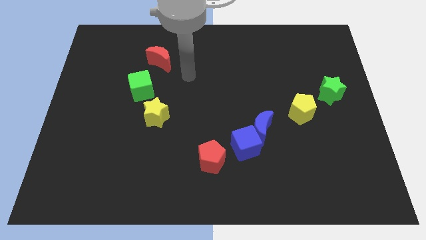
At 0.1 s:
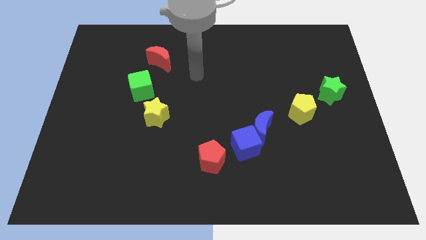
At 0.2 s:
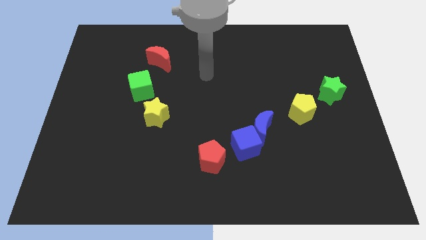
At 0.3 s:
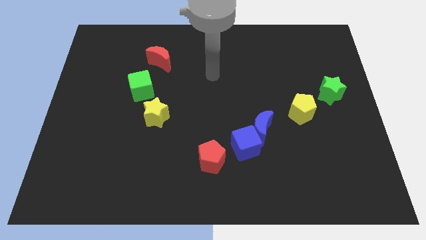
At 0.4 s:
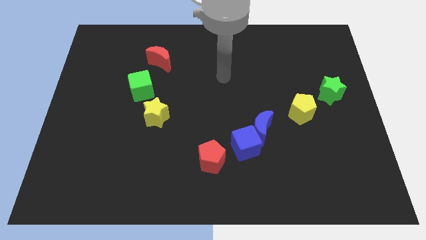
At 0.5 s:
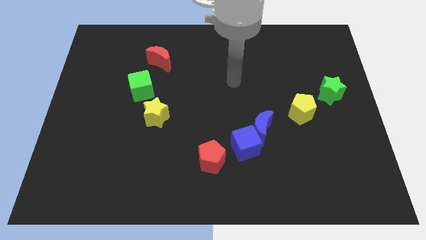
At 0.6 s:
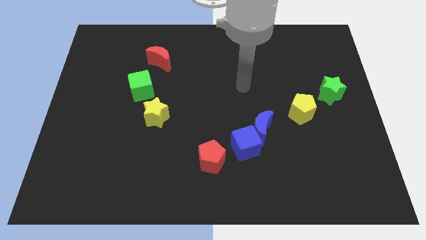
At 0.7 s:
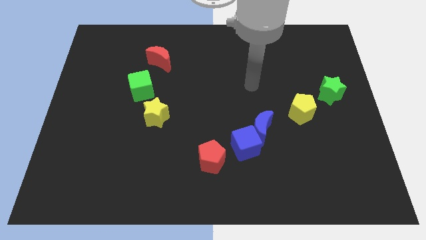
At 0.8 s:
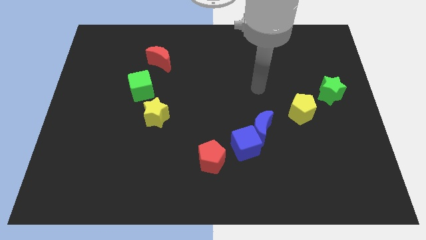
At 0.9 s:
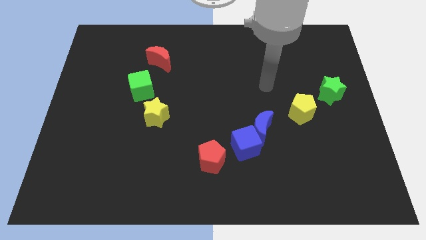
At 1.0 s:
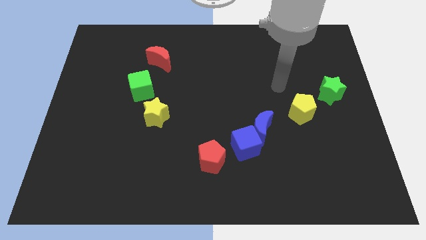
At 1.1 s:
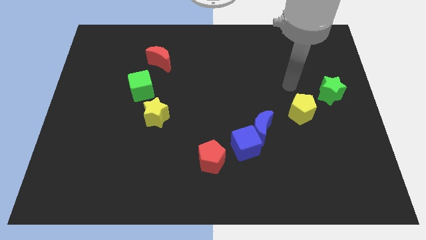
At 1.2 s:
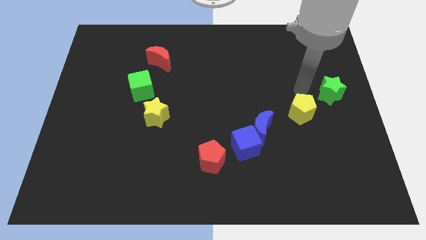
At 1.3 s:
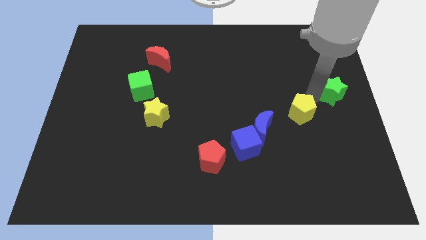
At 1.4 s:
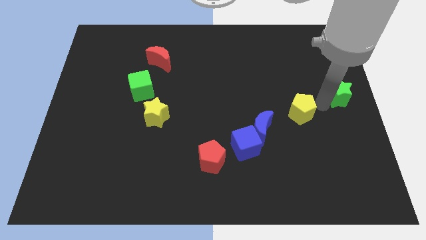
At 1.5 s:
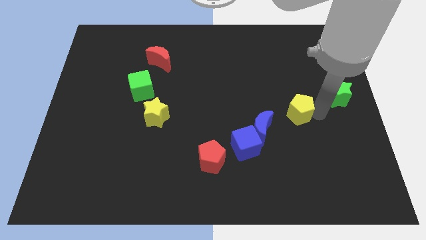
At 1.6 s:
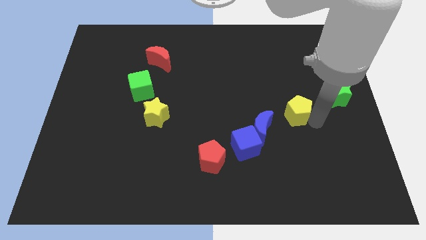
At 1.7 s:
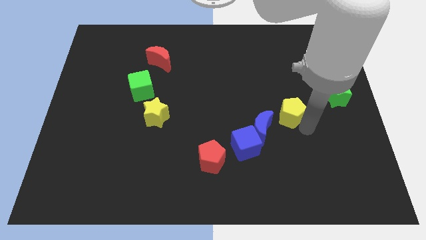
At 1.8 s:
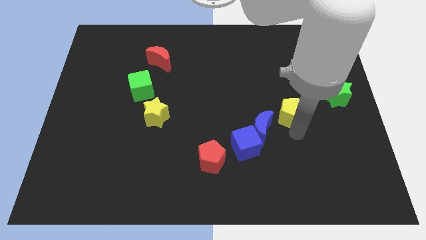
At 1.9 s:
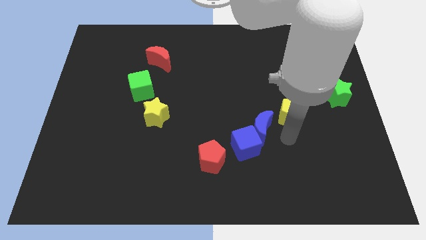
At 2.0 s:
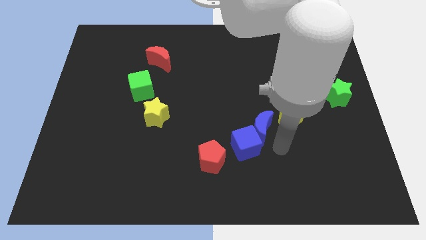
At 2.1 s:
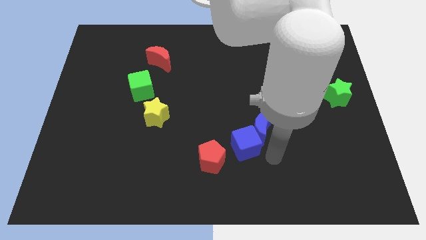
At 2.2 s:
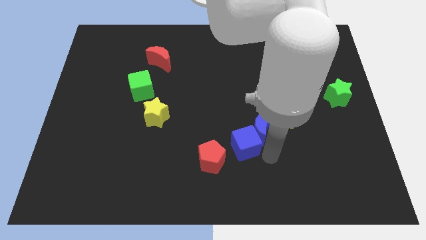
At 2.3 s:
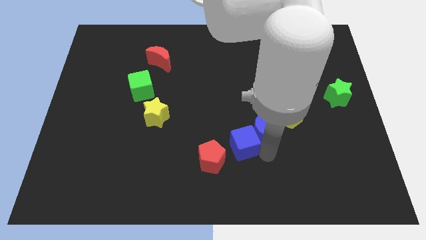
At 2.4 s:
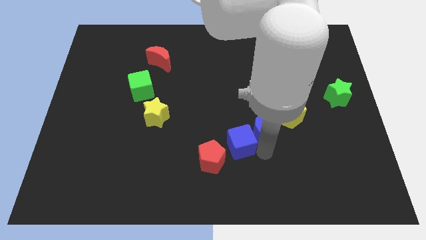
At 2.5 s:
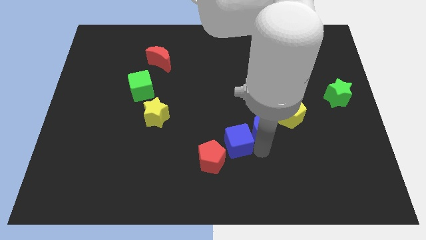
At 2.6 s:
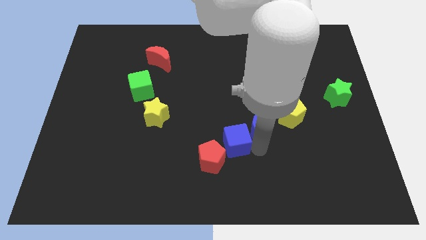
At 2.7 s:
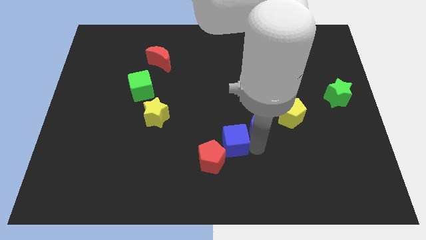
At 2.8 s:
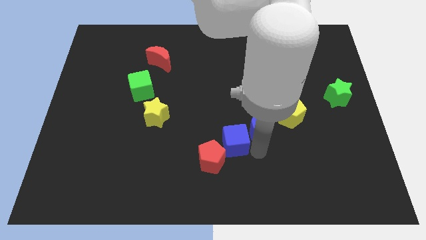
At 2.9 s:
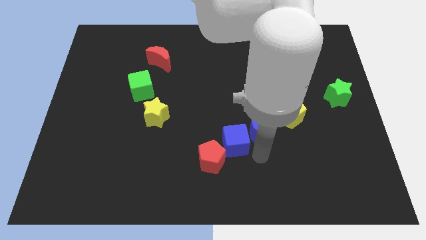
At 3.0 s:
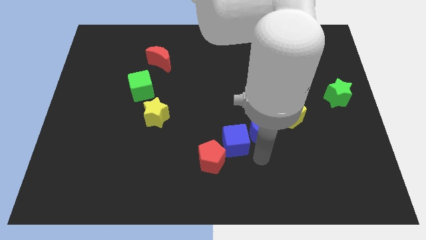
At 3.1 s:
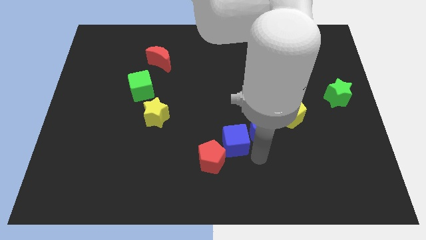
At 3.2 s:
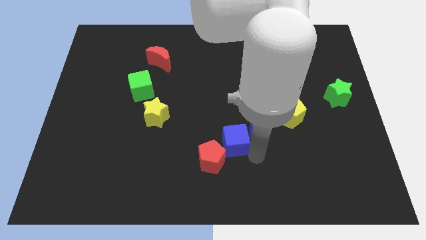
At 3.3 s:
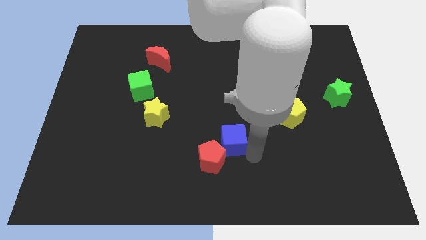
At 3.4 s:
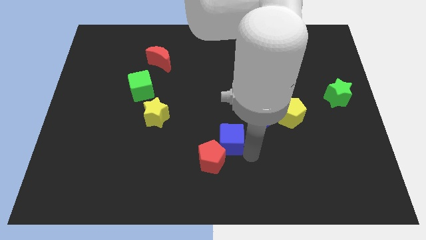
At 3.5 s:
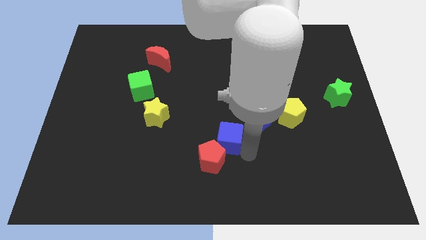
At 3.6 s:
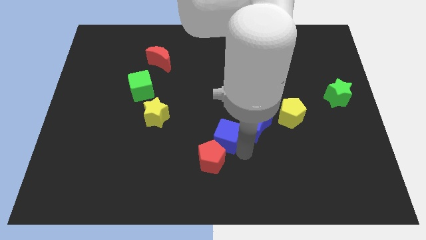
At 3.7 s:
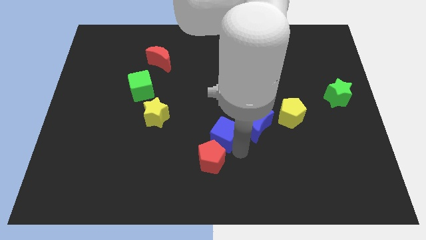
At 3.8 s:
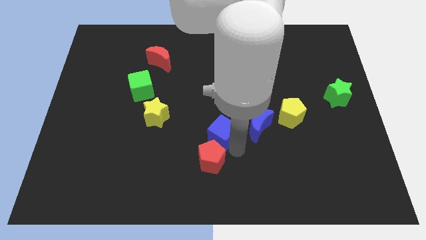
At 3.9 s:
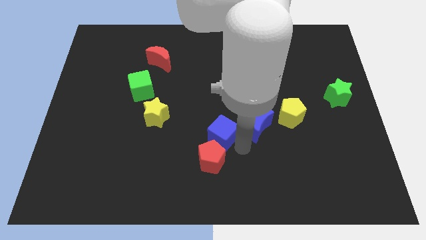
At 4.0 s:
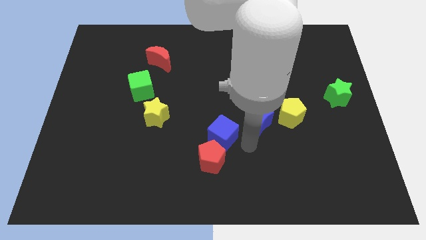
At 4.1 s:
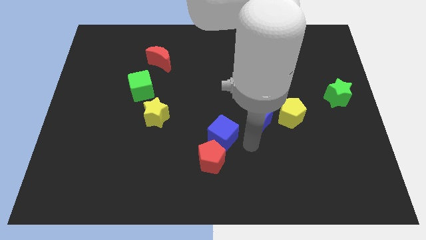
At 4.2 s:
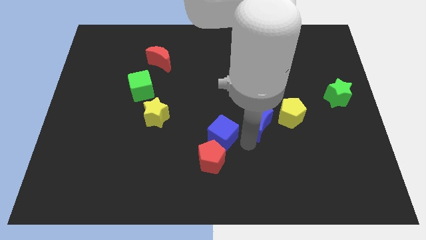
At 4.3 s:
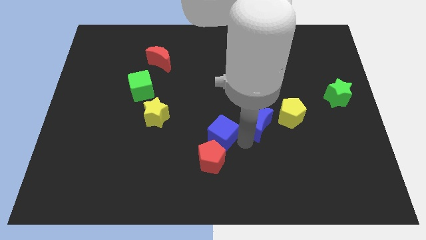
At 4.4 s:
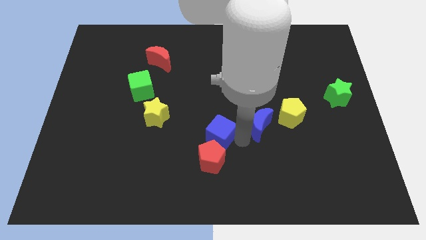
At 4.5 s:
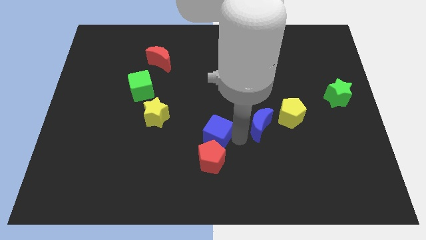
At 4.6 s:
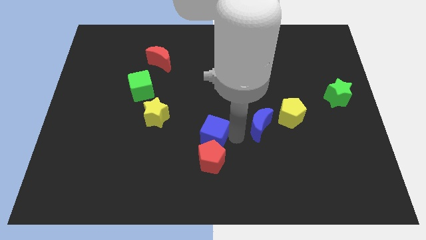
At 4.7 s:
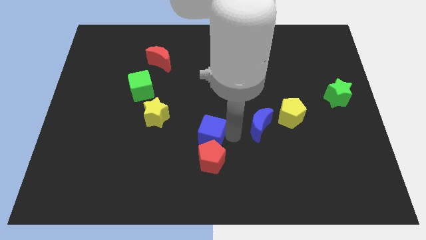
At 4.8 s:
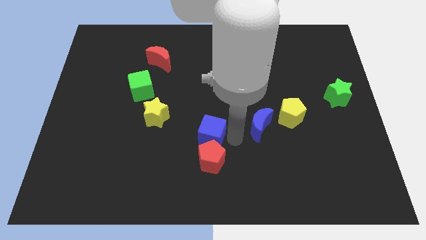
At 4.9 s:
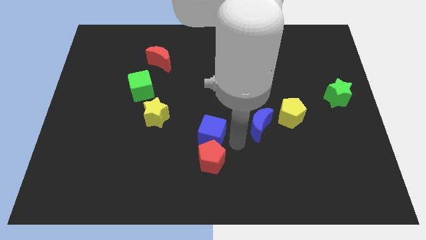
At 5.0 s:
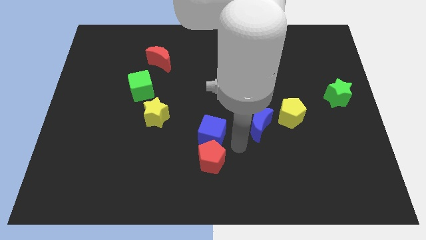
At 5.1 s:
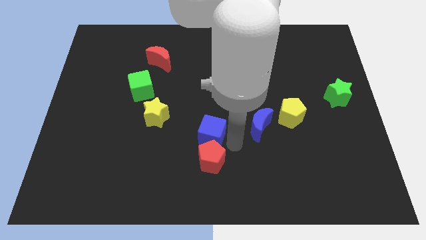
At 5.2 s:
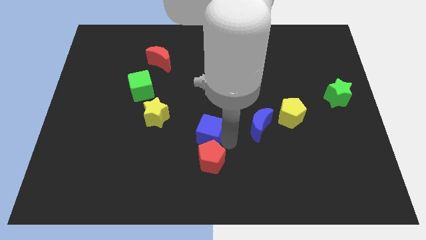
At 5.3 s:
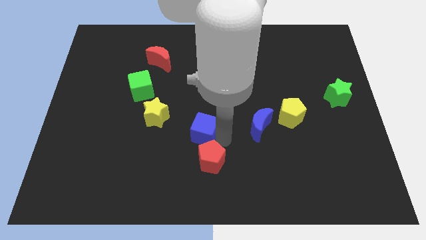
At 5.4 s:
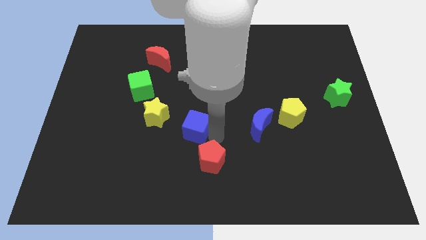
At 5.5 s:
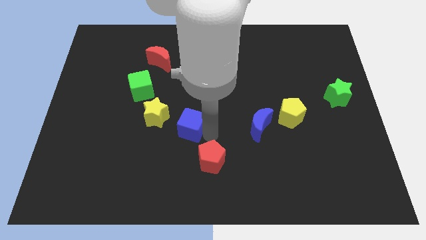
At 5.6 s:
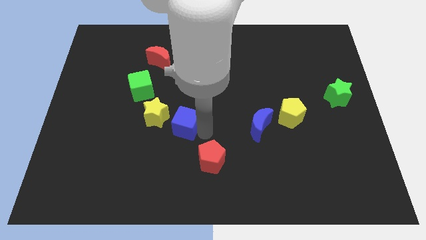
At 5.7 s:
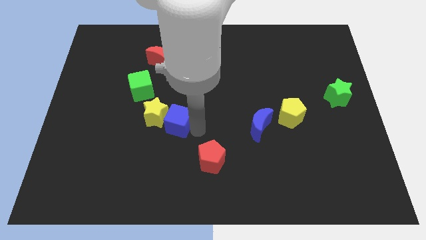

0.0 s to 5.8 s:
slide the blue cube close to the yellow star

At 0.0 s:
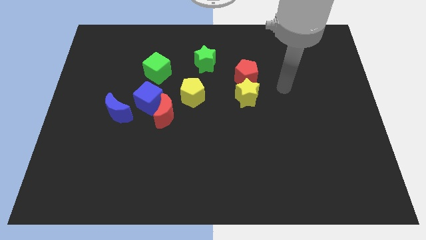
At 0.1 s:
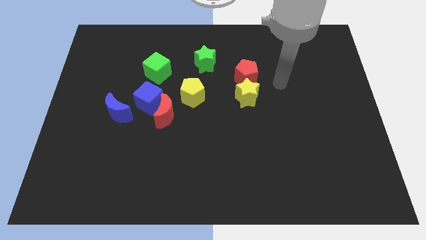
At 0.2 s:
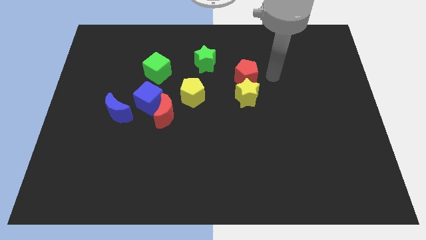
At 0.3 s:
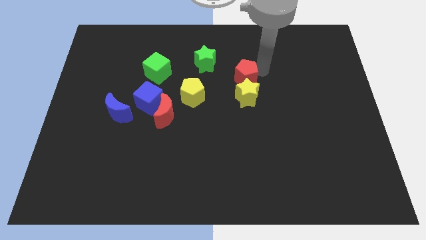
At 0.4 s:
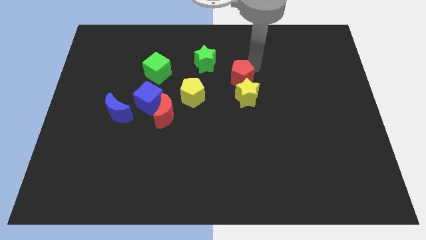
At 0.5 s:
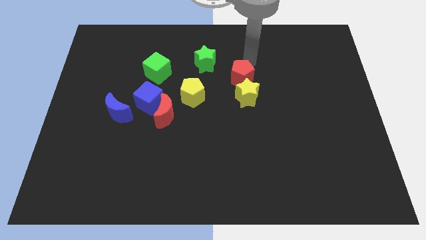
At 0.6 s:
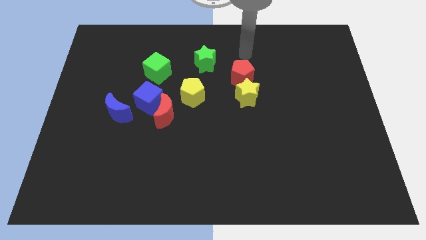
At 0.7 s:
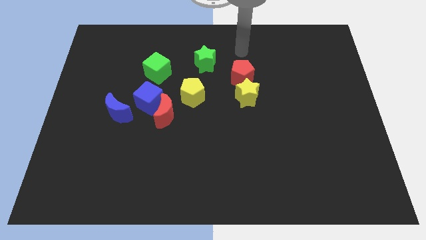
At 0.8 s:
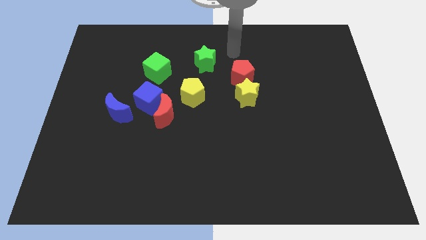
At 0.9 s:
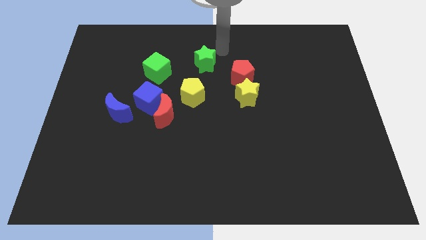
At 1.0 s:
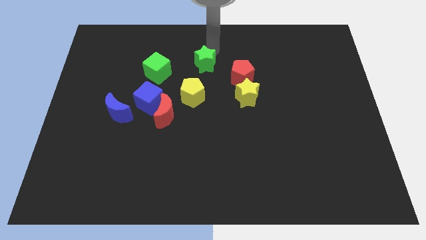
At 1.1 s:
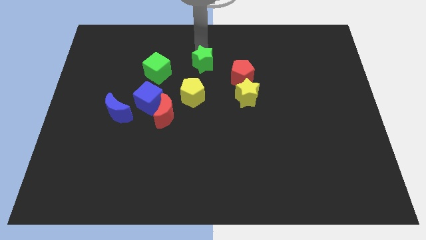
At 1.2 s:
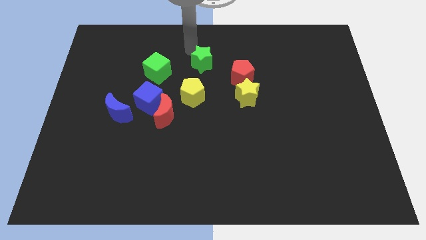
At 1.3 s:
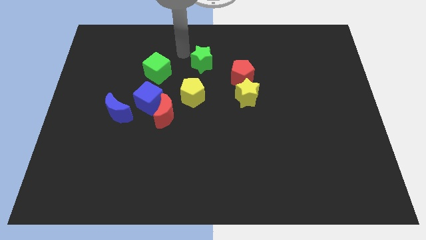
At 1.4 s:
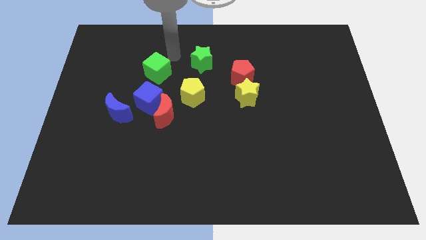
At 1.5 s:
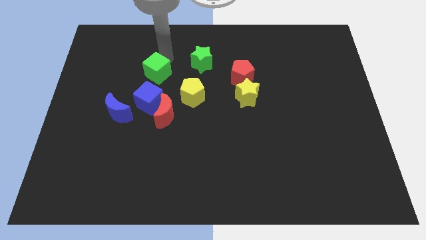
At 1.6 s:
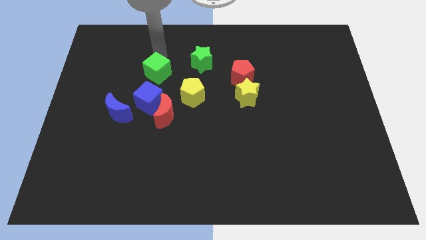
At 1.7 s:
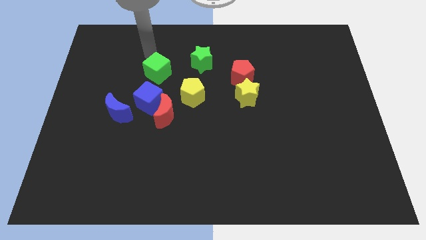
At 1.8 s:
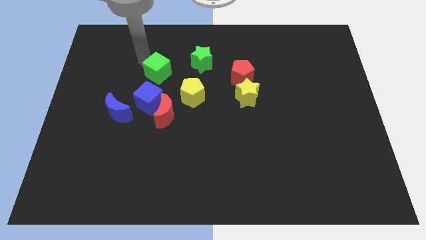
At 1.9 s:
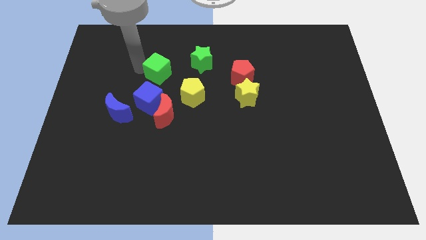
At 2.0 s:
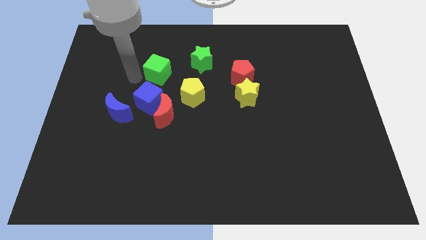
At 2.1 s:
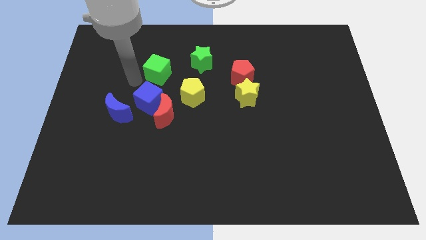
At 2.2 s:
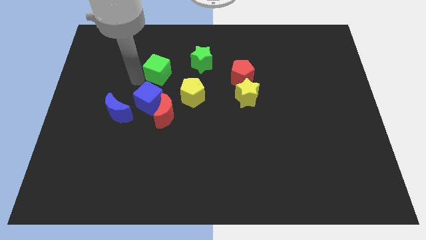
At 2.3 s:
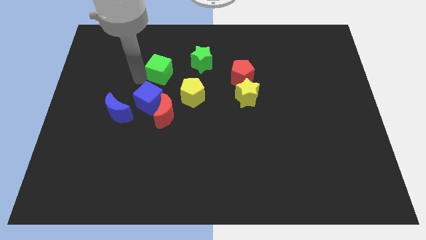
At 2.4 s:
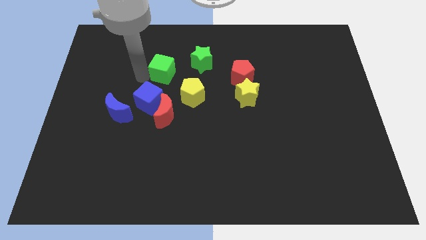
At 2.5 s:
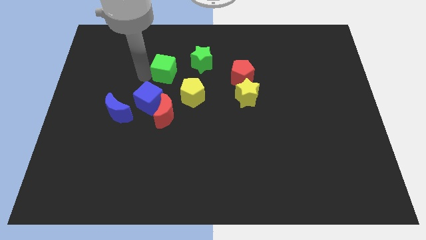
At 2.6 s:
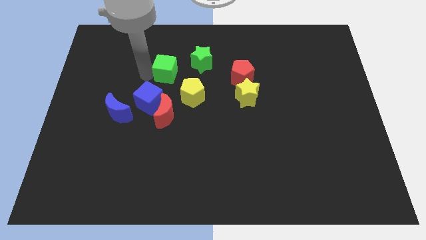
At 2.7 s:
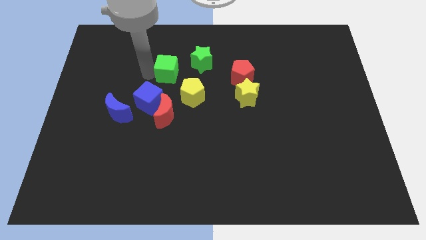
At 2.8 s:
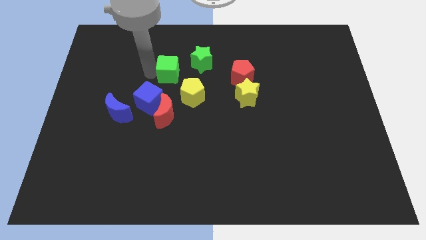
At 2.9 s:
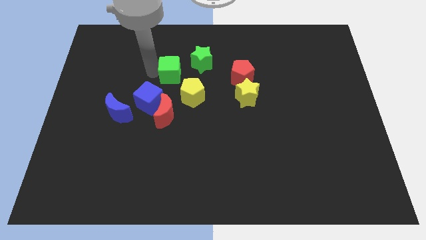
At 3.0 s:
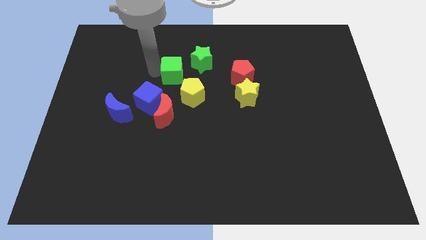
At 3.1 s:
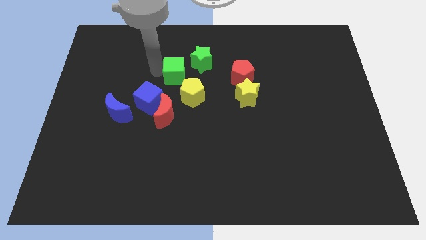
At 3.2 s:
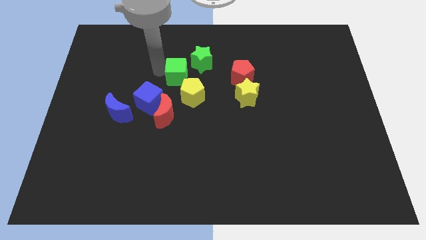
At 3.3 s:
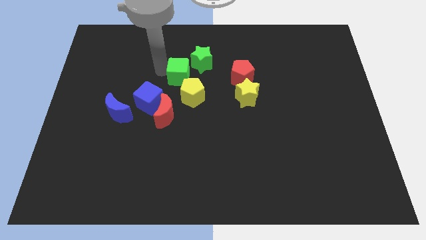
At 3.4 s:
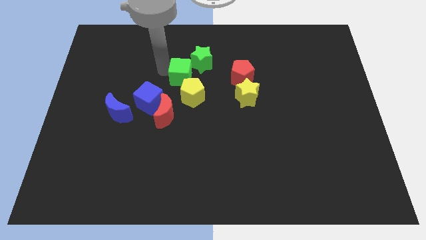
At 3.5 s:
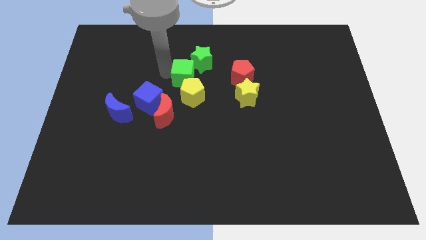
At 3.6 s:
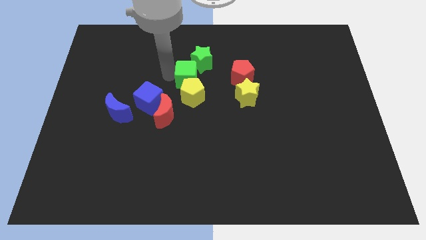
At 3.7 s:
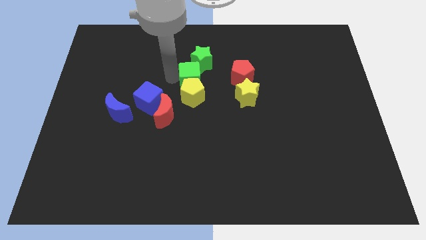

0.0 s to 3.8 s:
put the green cube next to the green star
